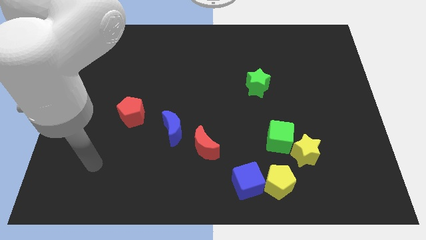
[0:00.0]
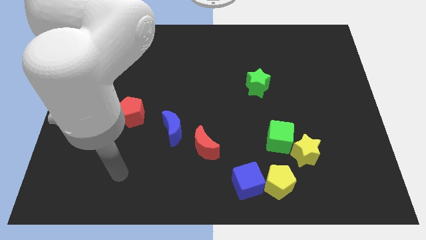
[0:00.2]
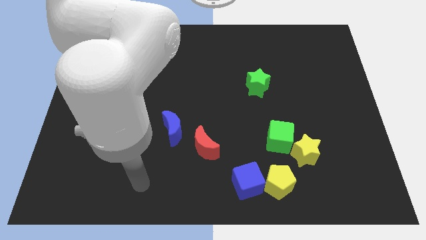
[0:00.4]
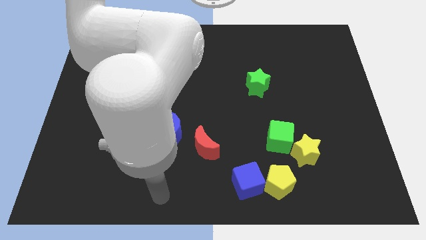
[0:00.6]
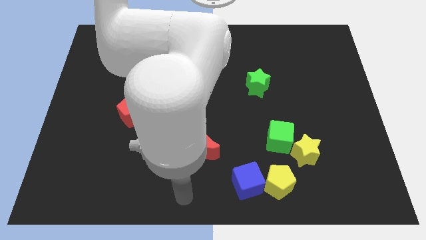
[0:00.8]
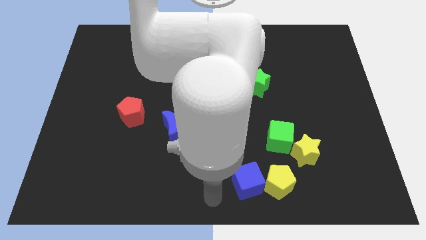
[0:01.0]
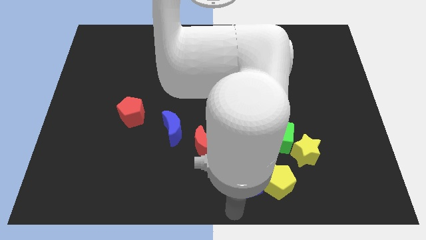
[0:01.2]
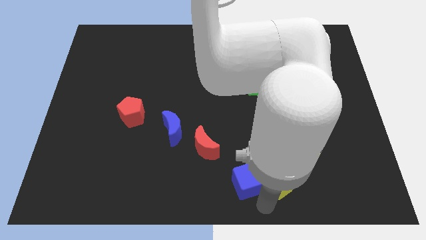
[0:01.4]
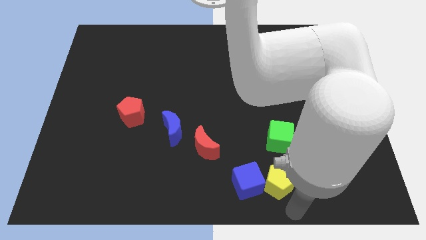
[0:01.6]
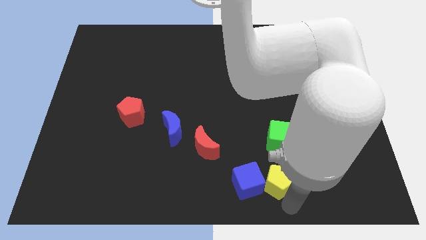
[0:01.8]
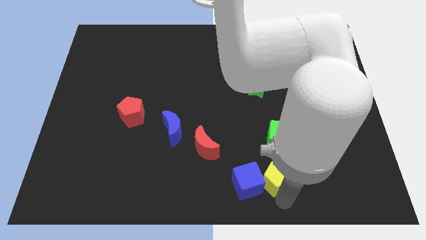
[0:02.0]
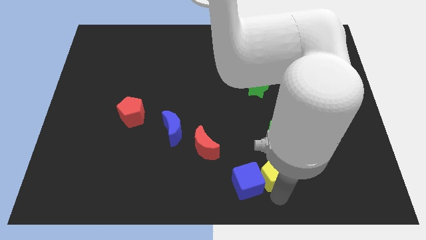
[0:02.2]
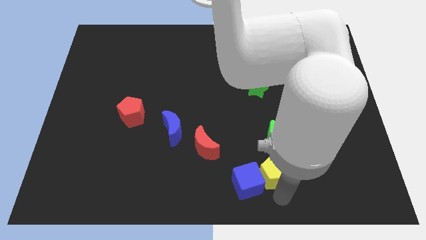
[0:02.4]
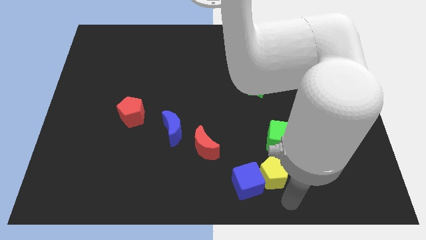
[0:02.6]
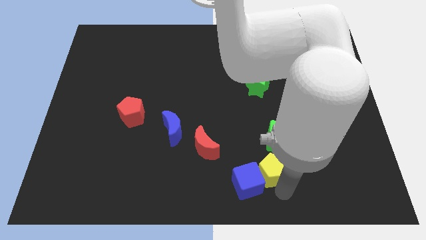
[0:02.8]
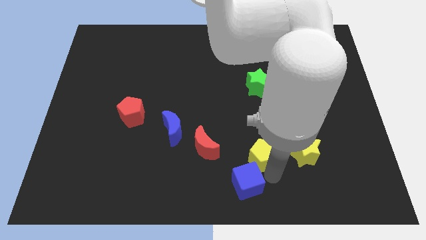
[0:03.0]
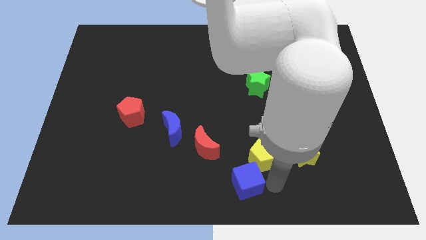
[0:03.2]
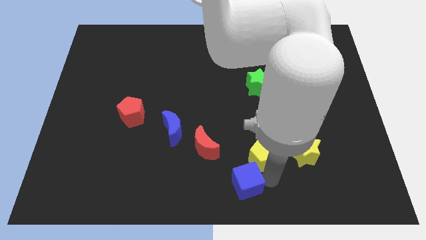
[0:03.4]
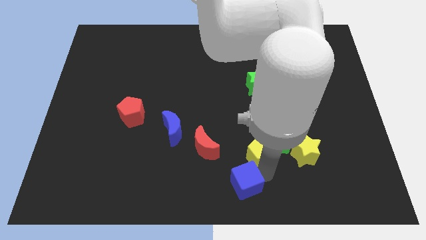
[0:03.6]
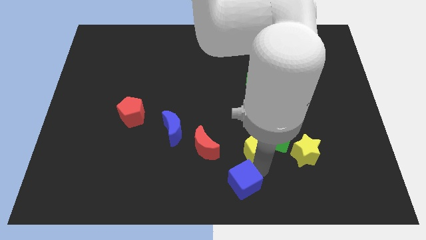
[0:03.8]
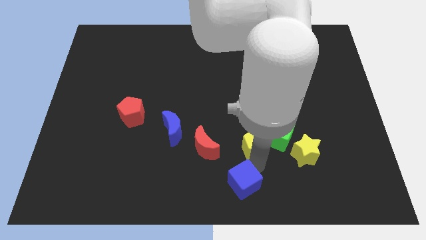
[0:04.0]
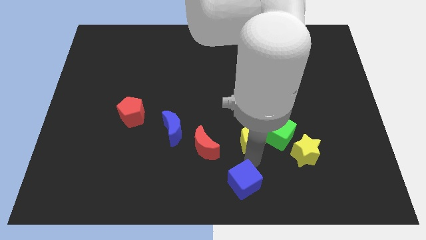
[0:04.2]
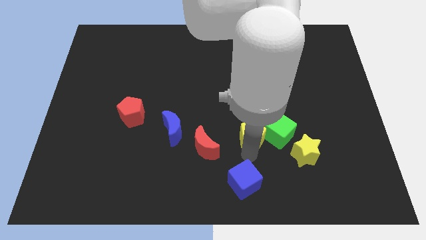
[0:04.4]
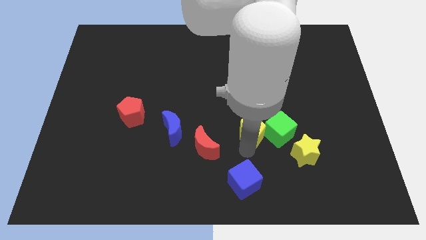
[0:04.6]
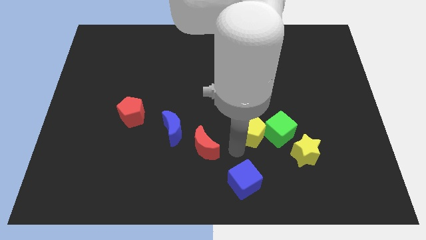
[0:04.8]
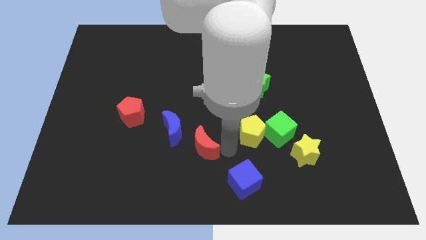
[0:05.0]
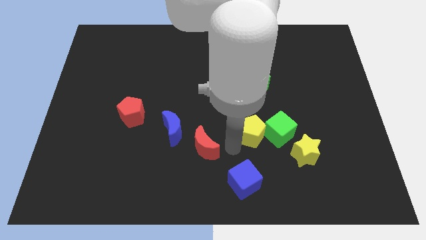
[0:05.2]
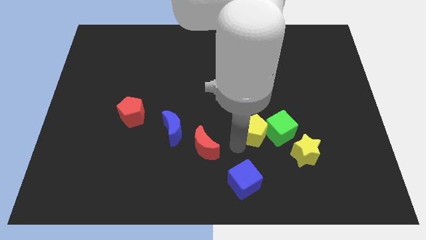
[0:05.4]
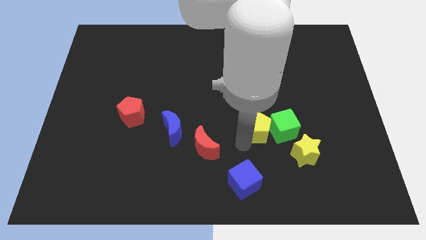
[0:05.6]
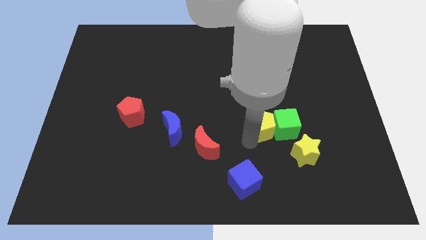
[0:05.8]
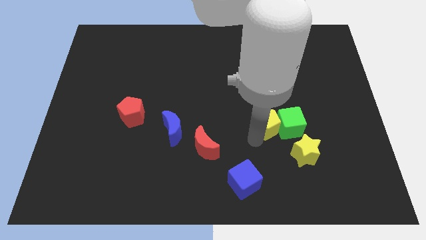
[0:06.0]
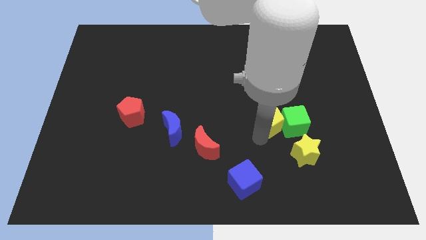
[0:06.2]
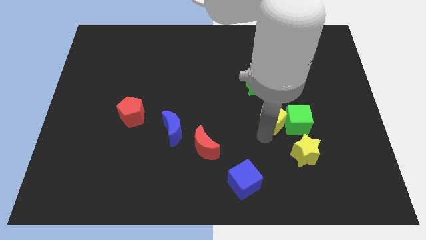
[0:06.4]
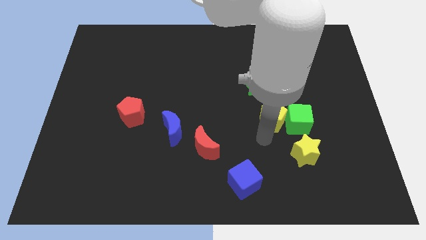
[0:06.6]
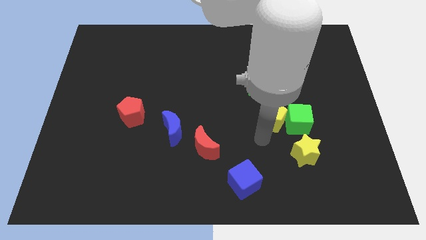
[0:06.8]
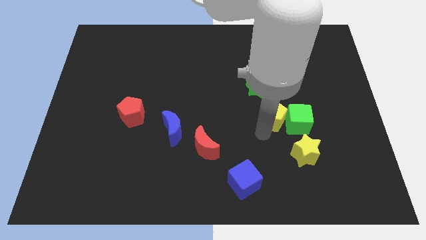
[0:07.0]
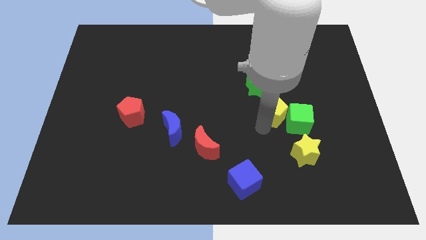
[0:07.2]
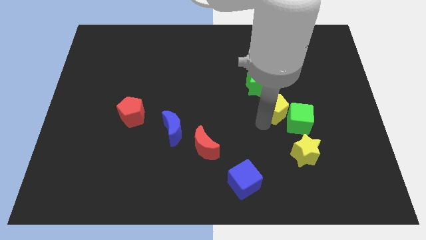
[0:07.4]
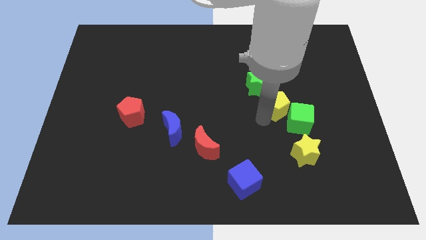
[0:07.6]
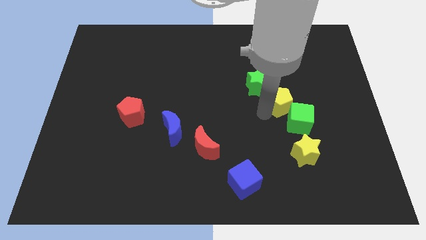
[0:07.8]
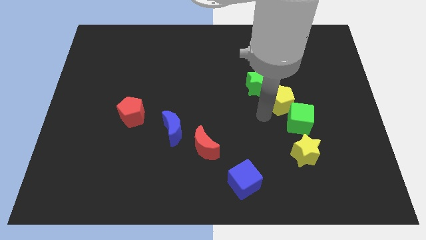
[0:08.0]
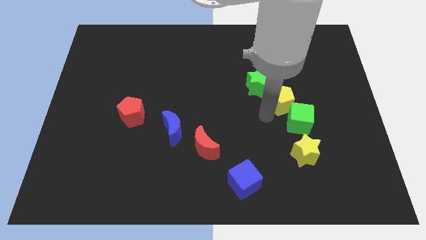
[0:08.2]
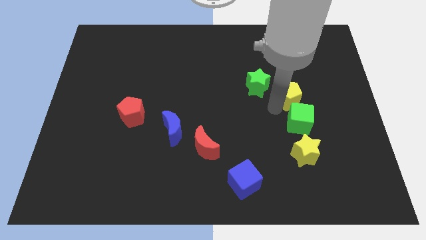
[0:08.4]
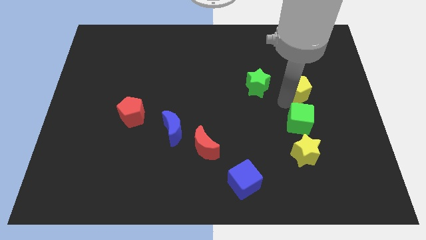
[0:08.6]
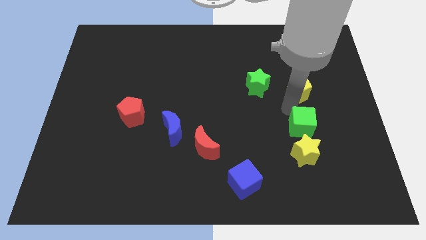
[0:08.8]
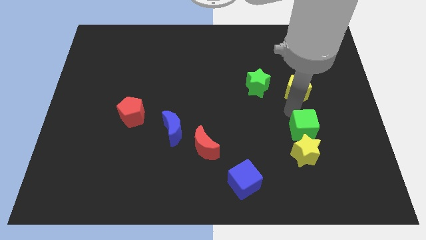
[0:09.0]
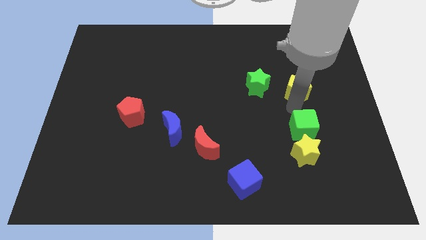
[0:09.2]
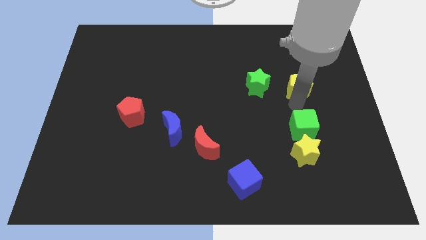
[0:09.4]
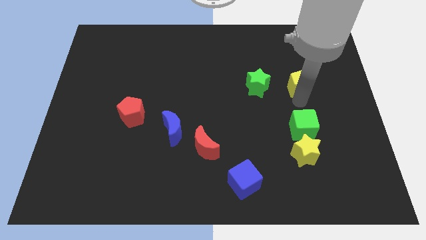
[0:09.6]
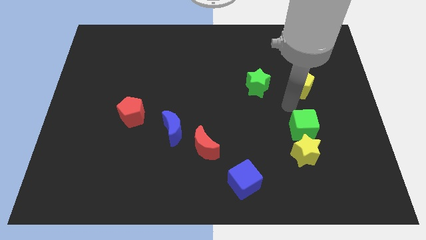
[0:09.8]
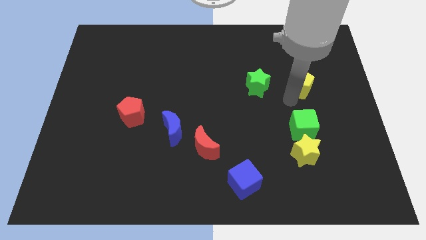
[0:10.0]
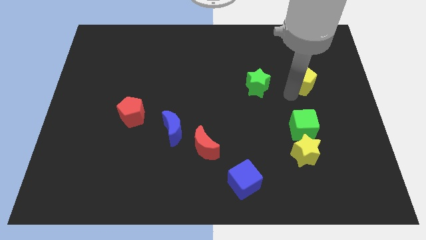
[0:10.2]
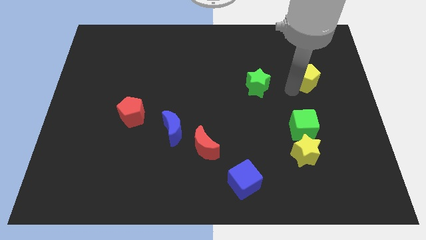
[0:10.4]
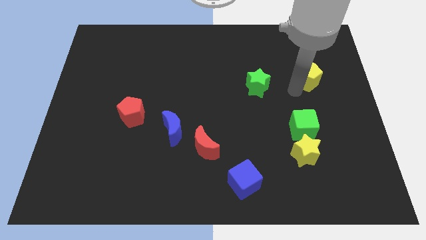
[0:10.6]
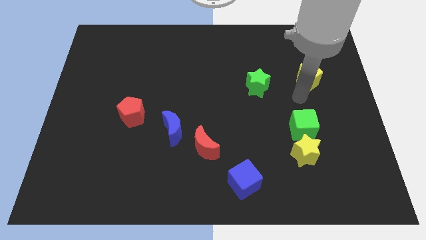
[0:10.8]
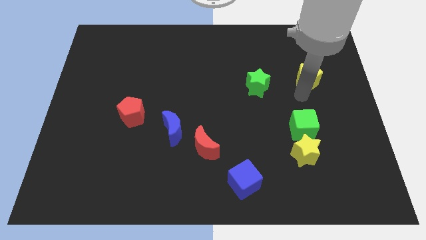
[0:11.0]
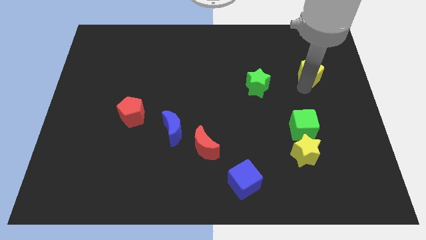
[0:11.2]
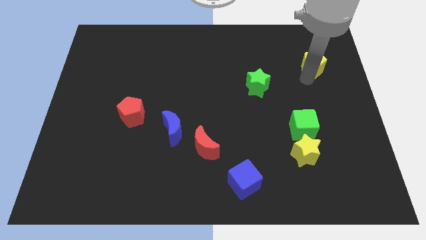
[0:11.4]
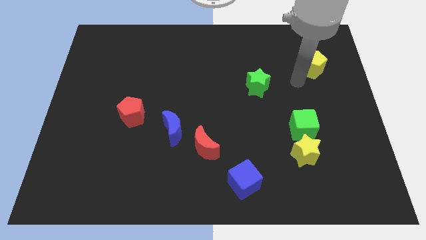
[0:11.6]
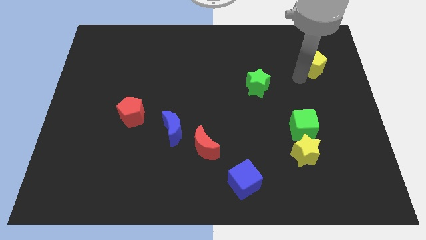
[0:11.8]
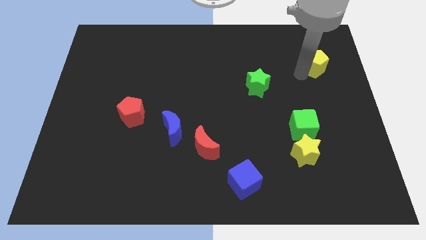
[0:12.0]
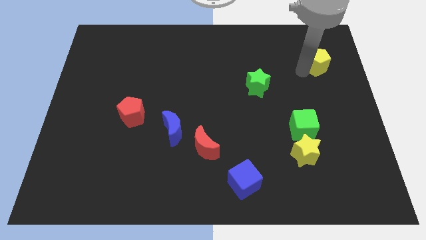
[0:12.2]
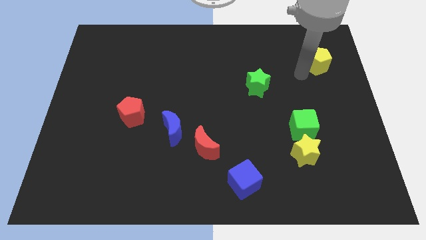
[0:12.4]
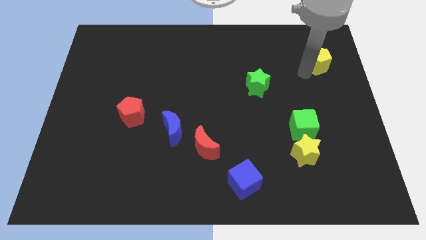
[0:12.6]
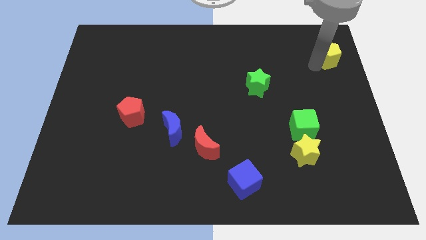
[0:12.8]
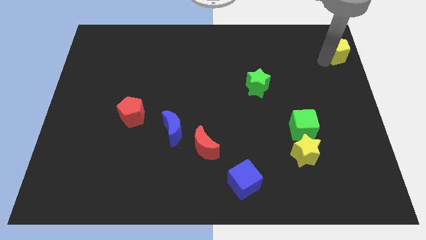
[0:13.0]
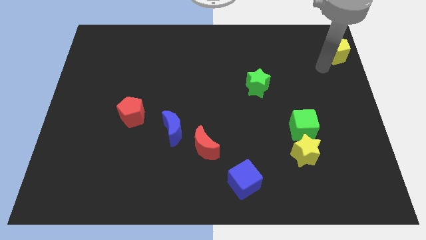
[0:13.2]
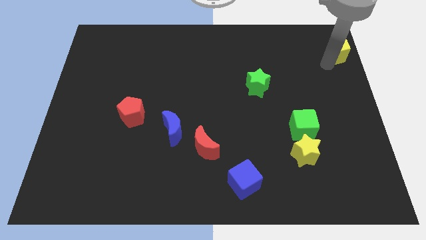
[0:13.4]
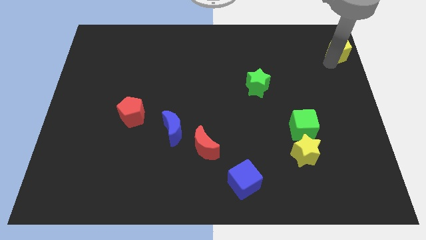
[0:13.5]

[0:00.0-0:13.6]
move the yellow pentagon to the top right
